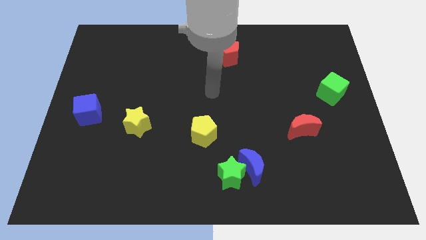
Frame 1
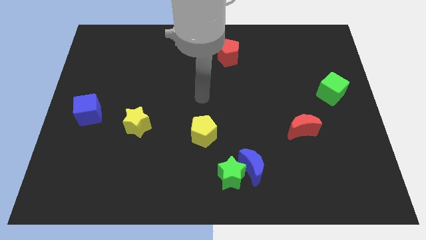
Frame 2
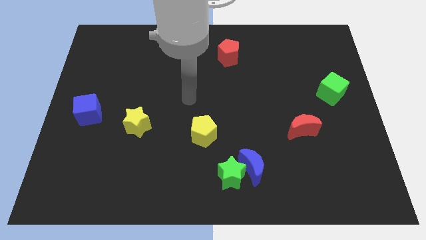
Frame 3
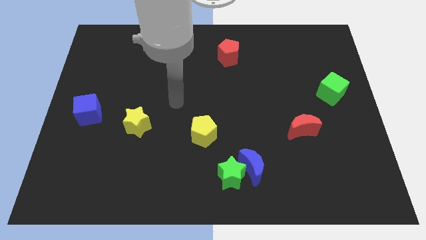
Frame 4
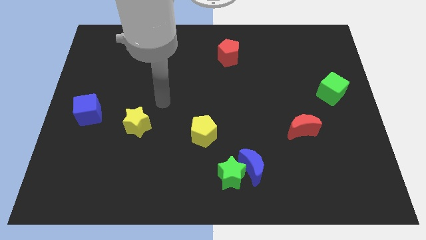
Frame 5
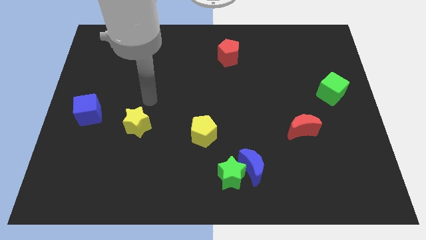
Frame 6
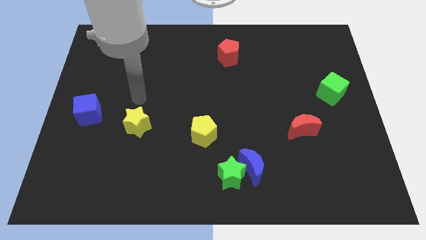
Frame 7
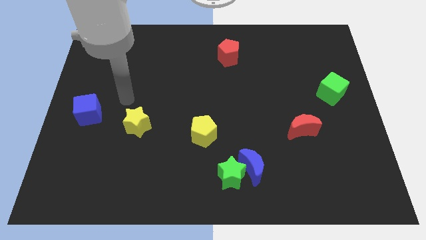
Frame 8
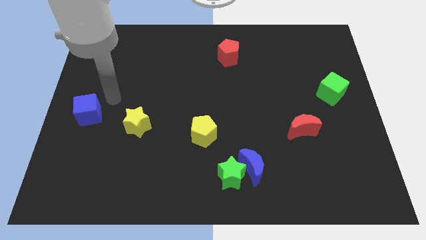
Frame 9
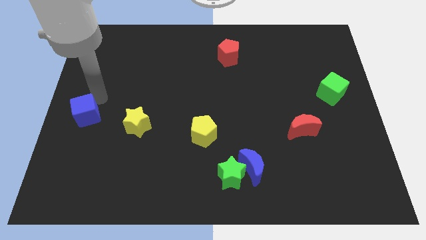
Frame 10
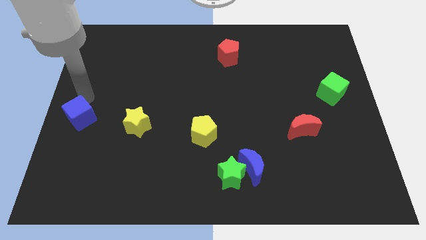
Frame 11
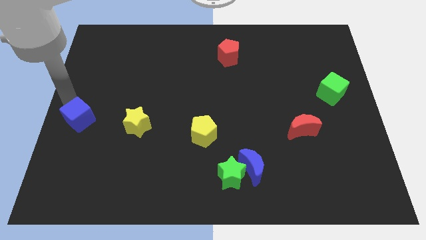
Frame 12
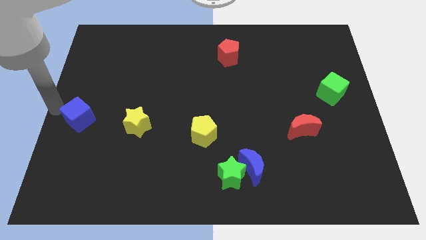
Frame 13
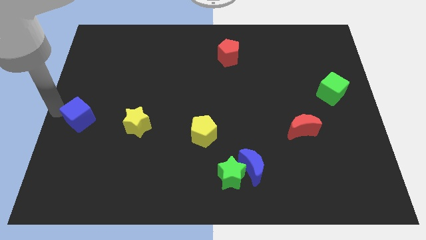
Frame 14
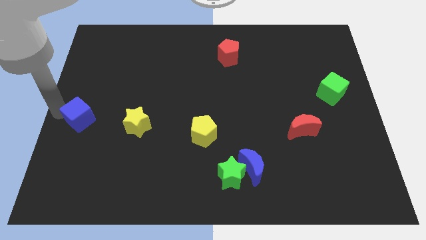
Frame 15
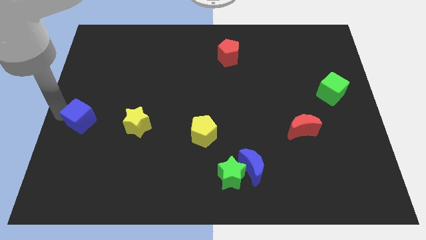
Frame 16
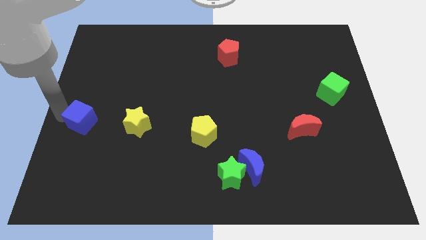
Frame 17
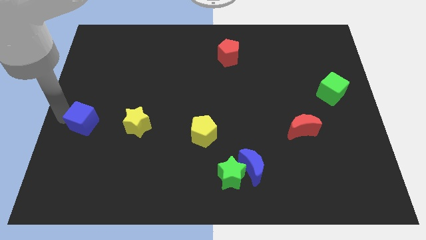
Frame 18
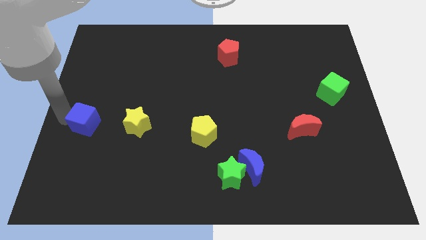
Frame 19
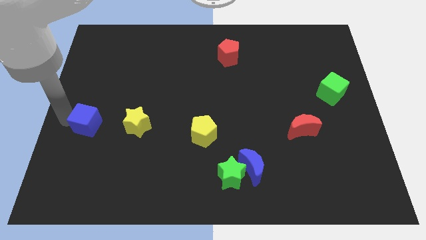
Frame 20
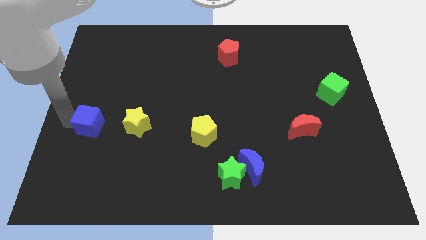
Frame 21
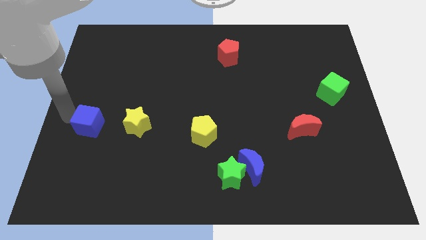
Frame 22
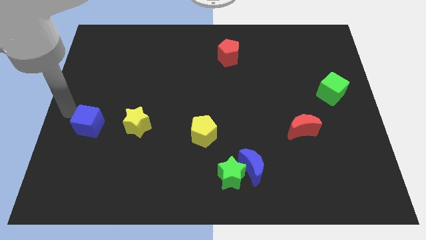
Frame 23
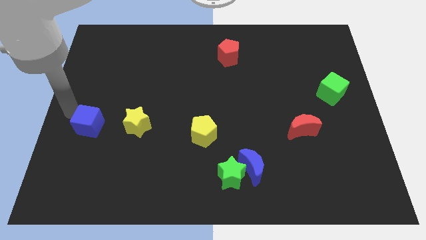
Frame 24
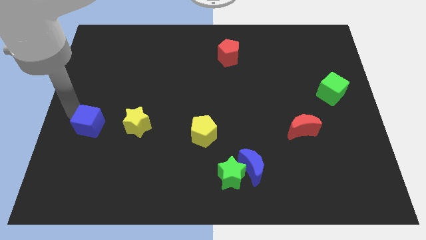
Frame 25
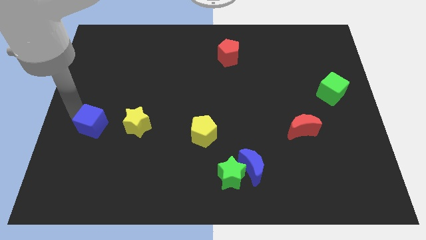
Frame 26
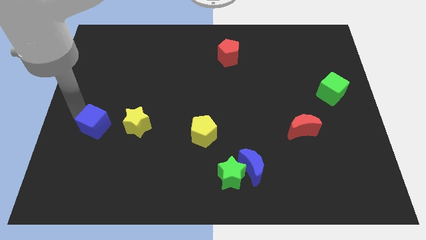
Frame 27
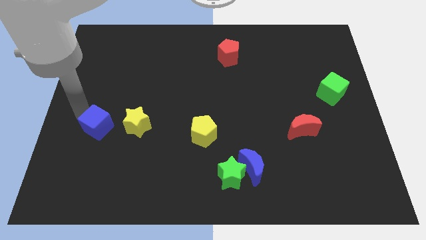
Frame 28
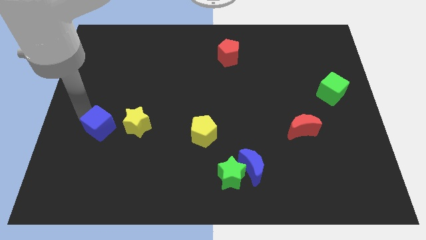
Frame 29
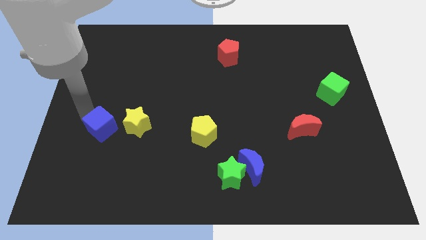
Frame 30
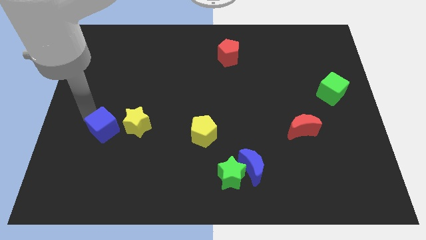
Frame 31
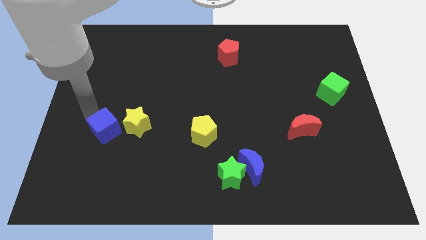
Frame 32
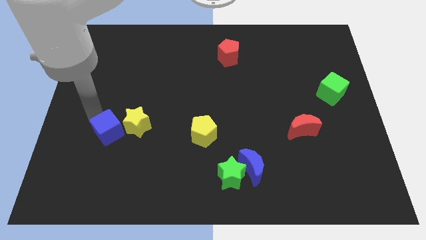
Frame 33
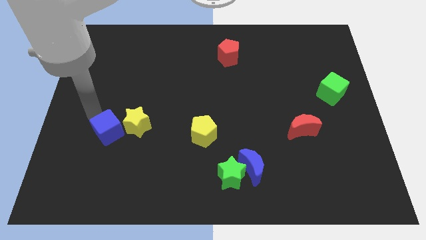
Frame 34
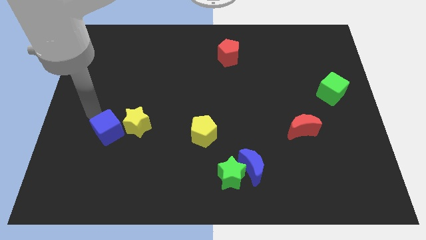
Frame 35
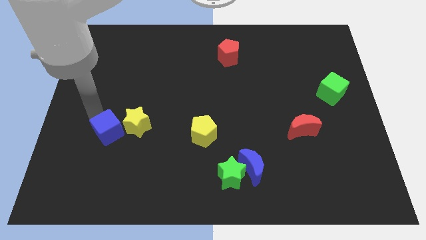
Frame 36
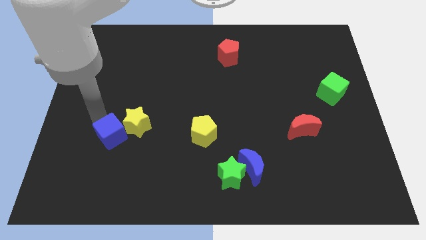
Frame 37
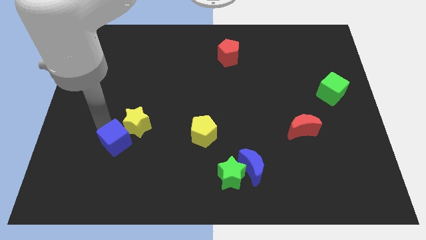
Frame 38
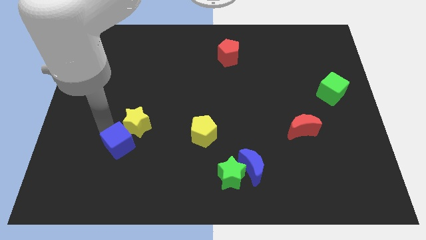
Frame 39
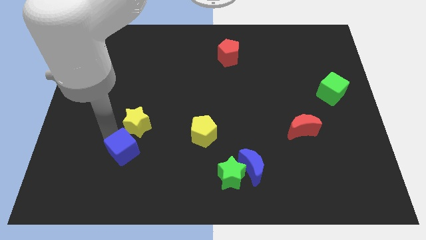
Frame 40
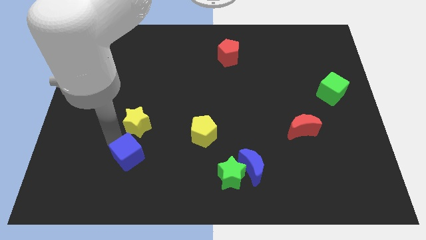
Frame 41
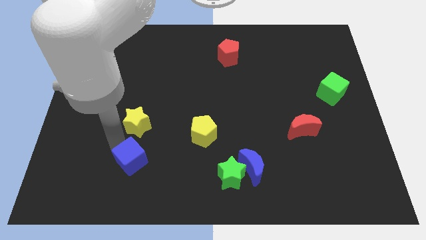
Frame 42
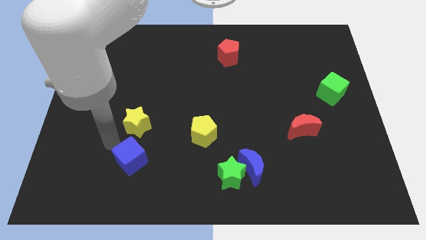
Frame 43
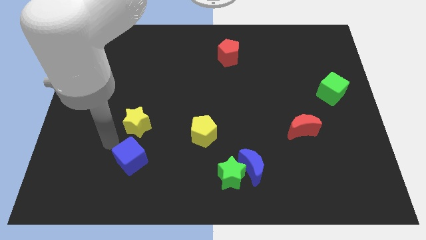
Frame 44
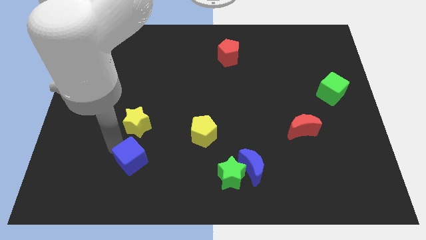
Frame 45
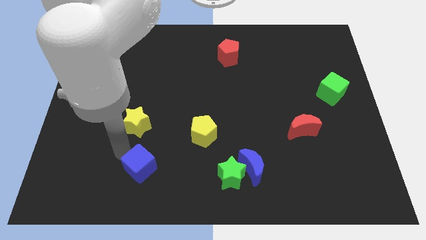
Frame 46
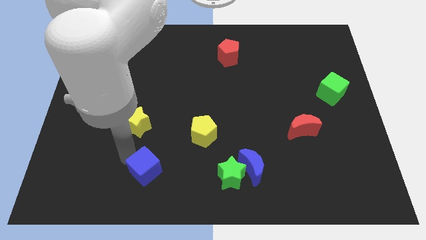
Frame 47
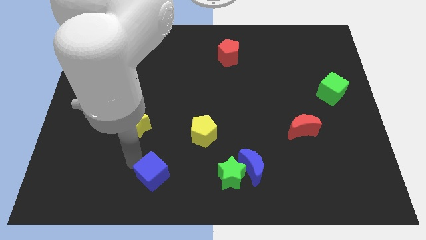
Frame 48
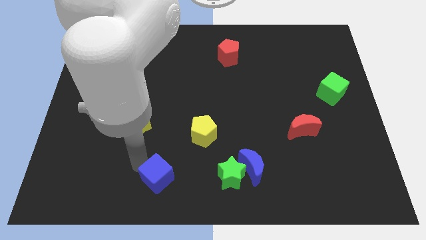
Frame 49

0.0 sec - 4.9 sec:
move the blue cube to the bottom side

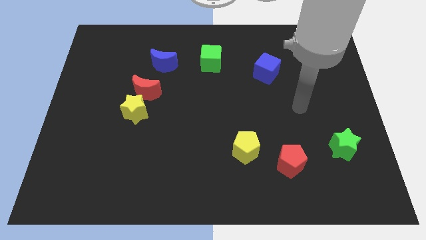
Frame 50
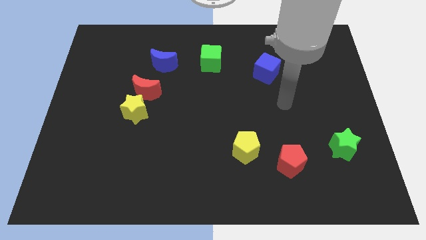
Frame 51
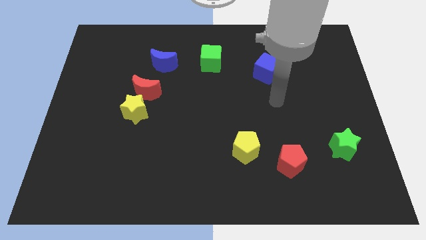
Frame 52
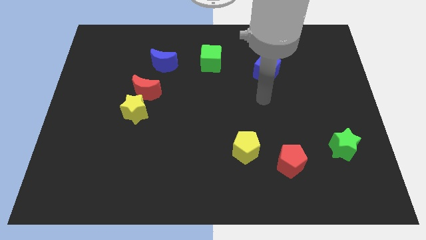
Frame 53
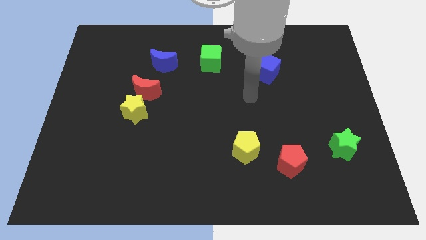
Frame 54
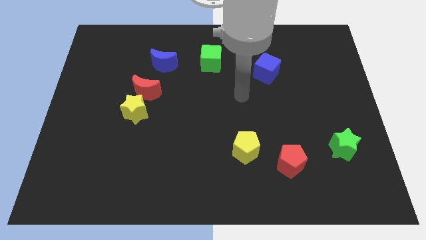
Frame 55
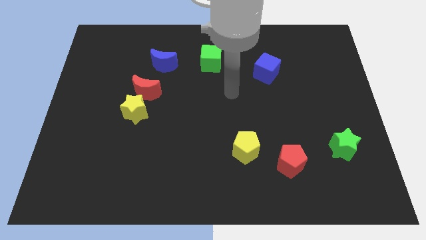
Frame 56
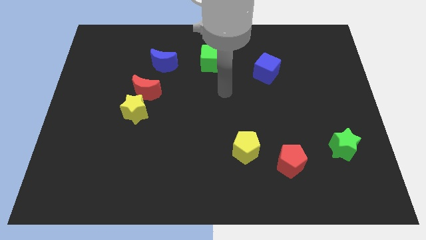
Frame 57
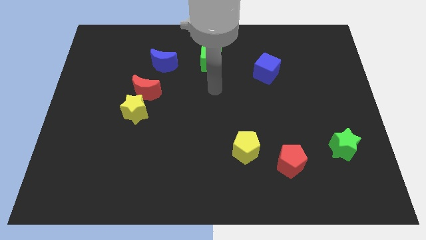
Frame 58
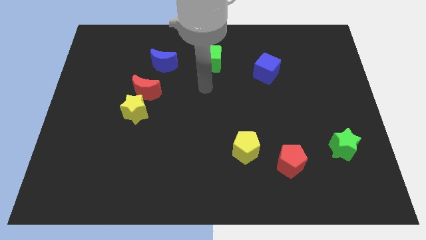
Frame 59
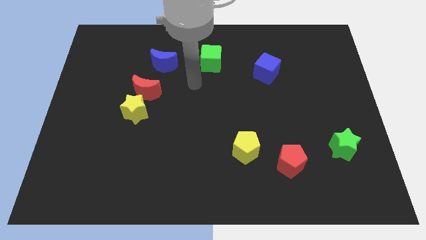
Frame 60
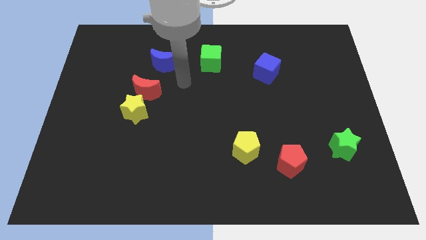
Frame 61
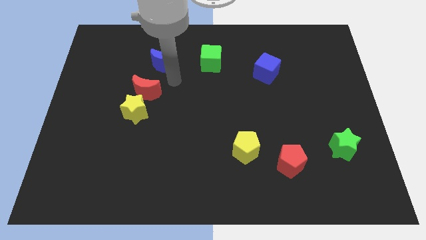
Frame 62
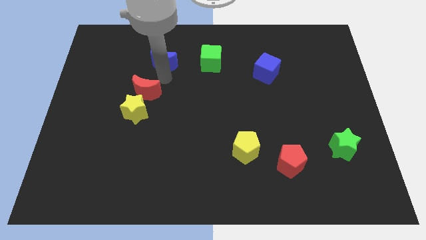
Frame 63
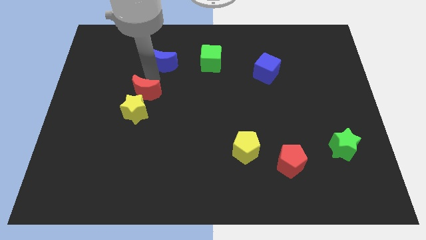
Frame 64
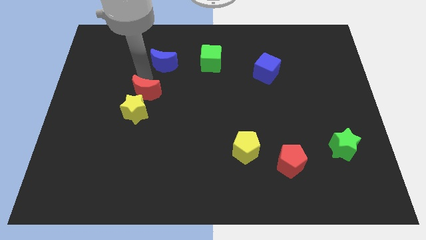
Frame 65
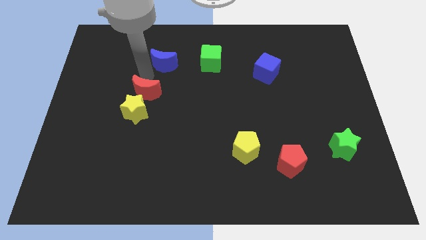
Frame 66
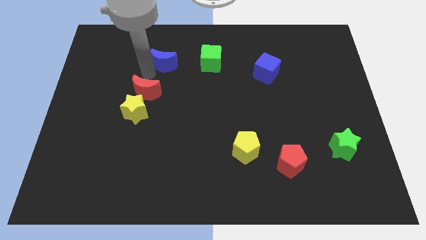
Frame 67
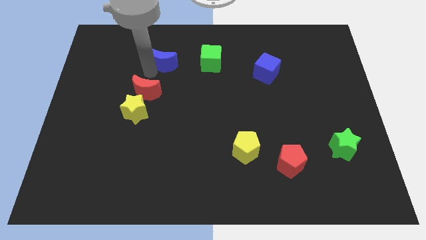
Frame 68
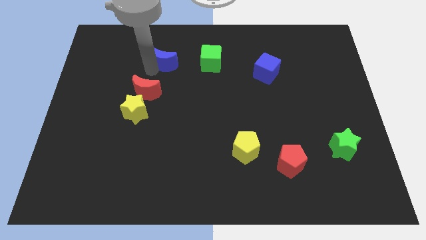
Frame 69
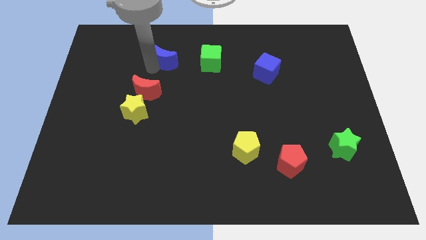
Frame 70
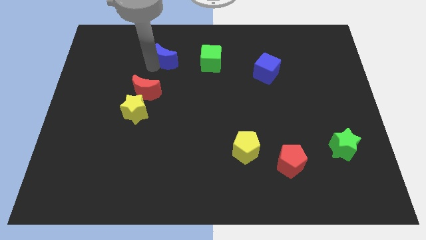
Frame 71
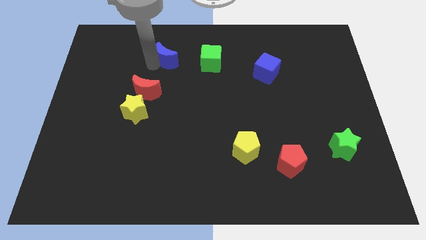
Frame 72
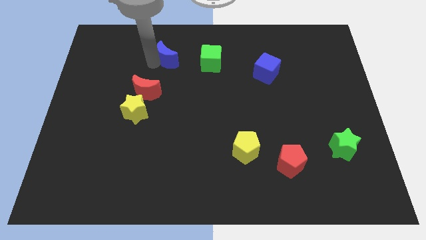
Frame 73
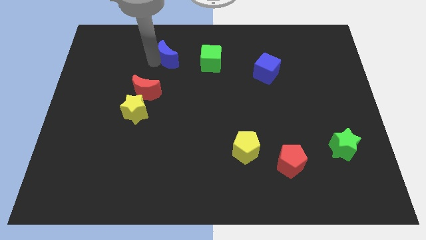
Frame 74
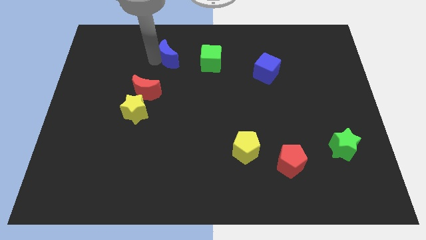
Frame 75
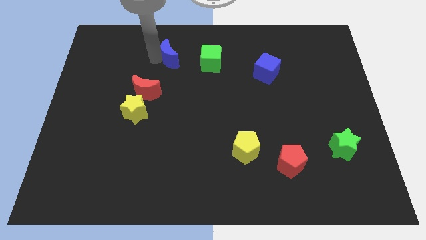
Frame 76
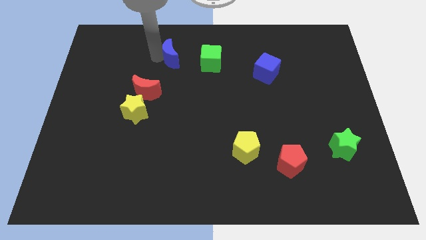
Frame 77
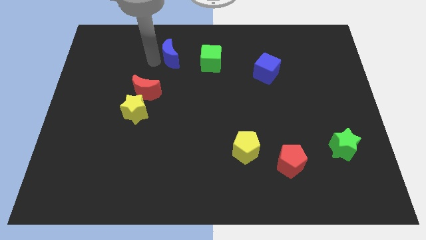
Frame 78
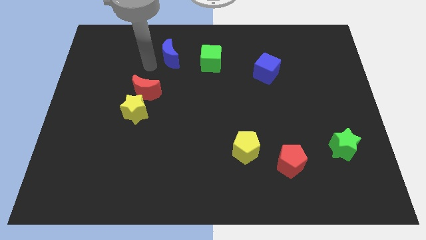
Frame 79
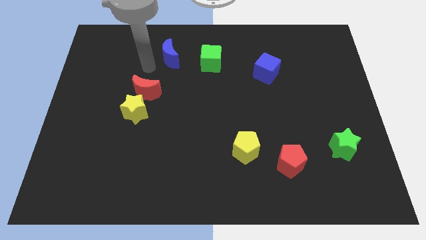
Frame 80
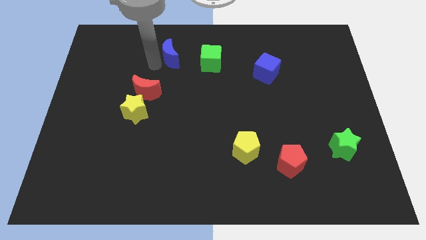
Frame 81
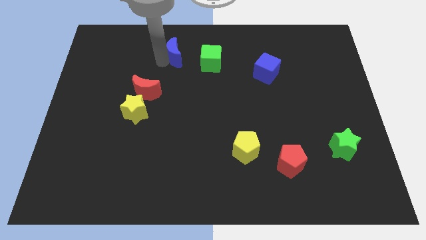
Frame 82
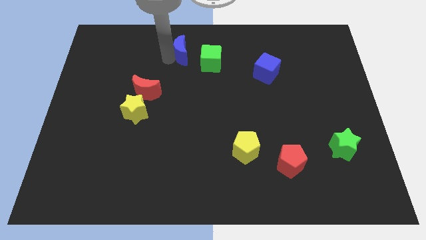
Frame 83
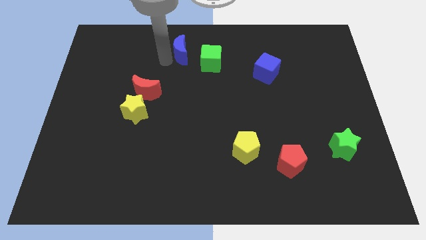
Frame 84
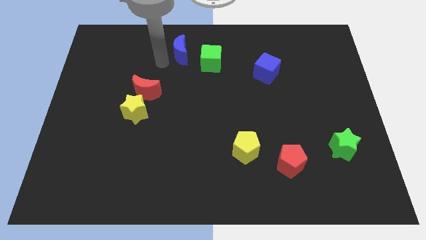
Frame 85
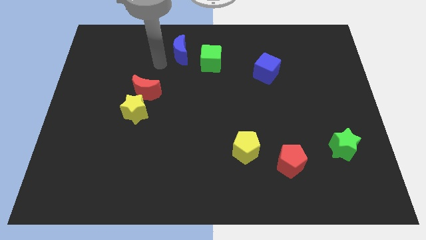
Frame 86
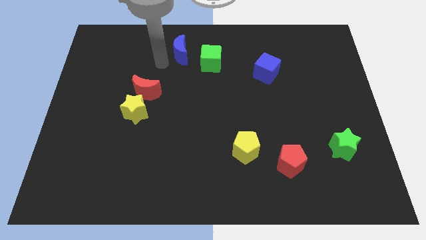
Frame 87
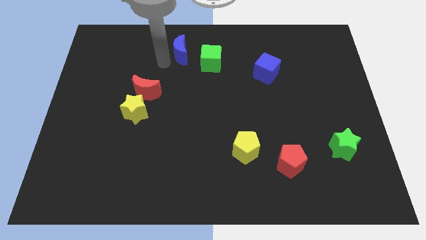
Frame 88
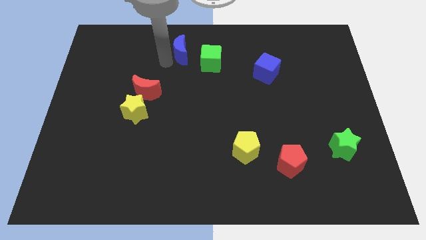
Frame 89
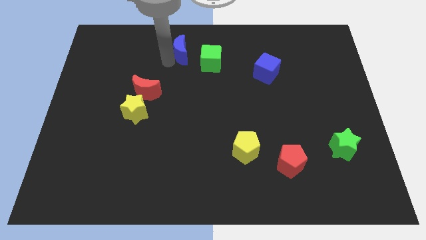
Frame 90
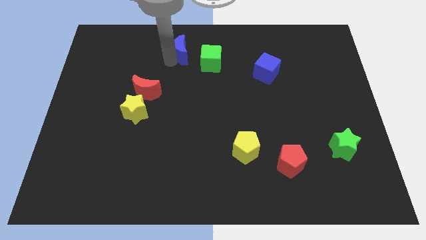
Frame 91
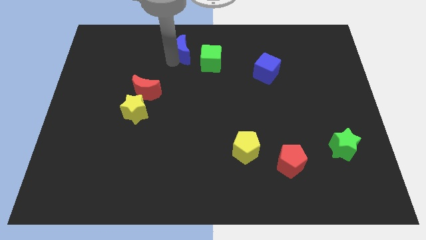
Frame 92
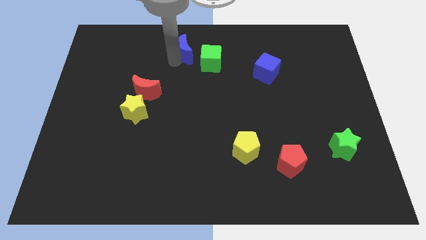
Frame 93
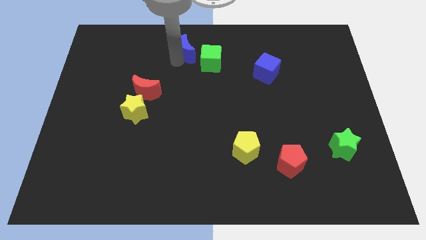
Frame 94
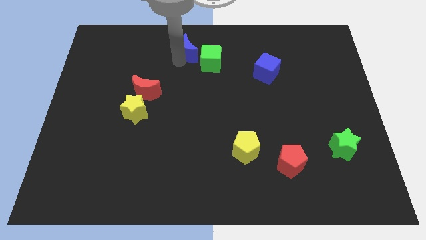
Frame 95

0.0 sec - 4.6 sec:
push the blue moon to the top side
